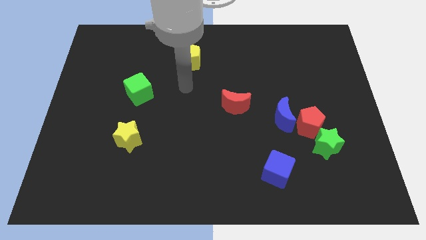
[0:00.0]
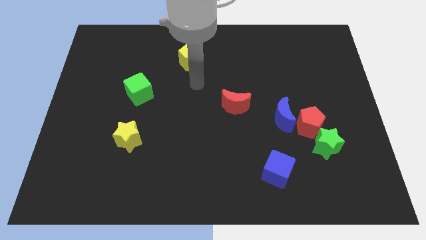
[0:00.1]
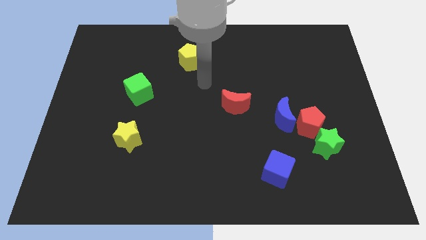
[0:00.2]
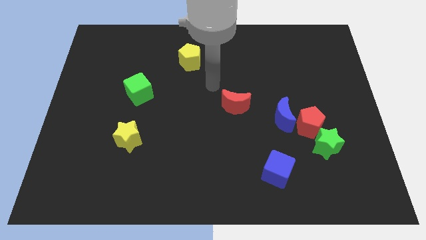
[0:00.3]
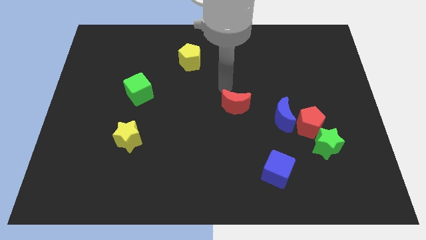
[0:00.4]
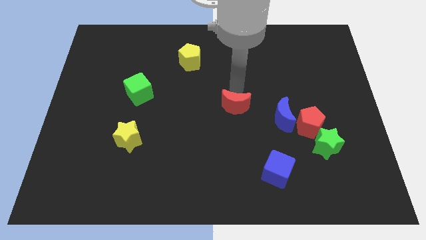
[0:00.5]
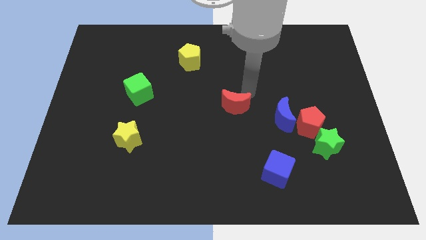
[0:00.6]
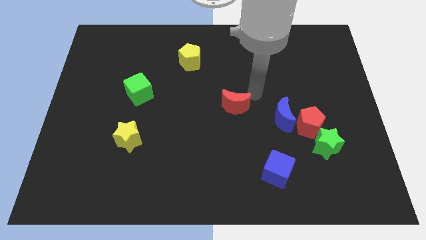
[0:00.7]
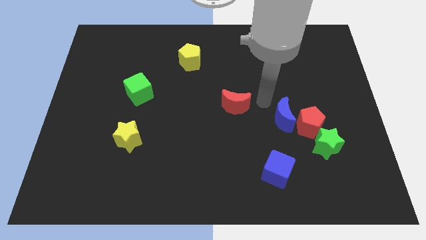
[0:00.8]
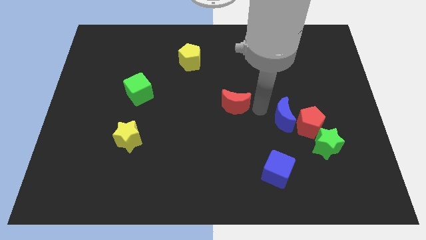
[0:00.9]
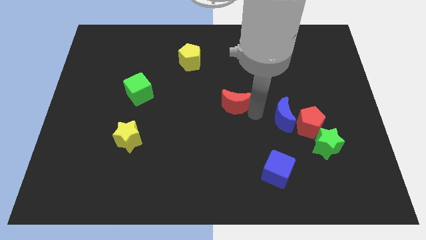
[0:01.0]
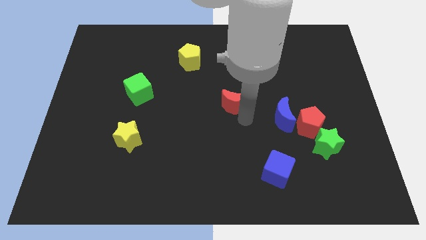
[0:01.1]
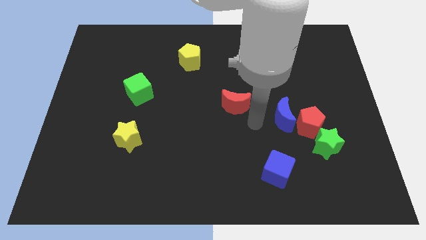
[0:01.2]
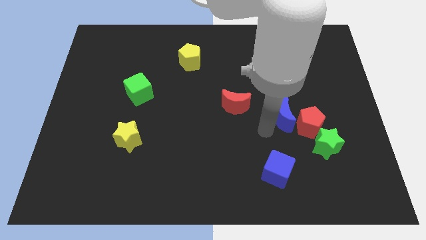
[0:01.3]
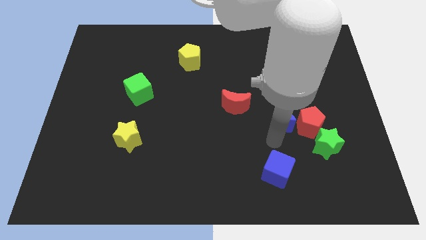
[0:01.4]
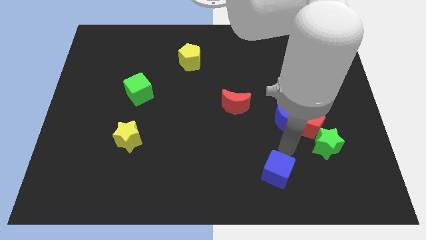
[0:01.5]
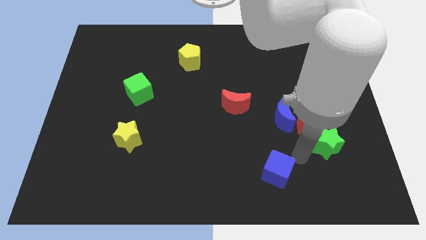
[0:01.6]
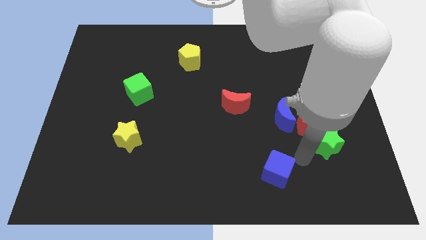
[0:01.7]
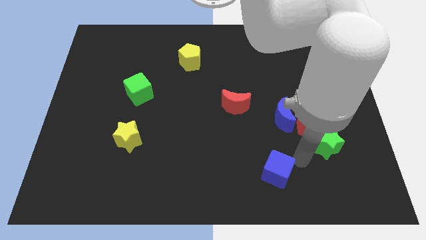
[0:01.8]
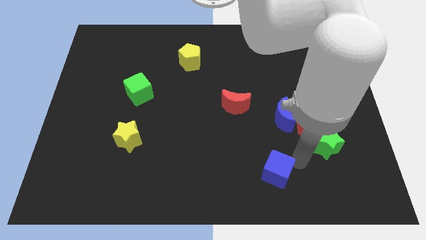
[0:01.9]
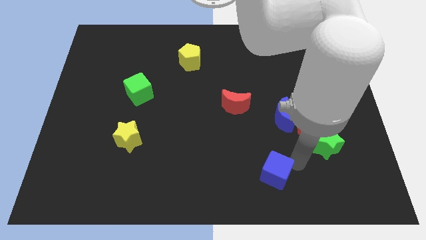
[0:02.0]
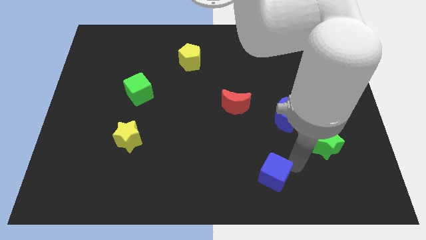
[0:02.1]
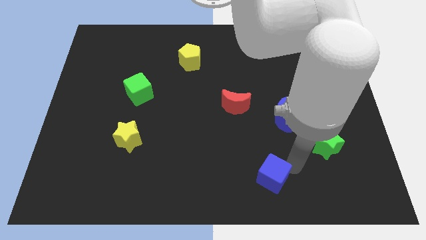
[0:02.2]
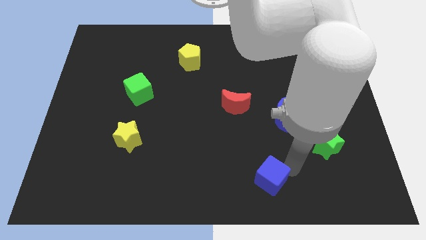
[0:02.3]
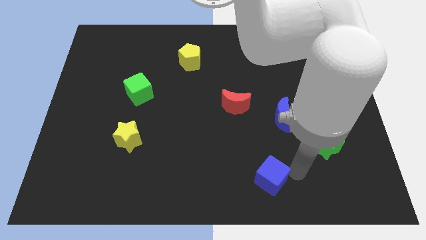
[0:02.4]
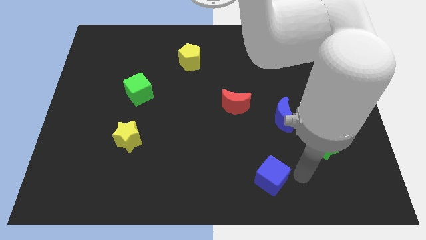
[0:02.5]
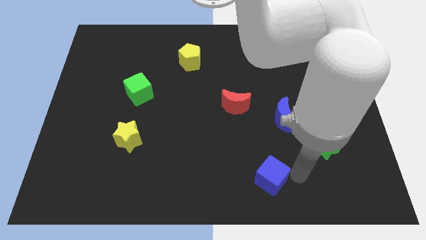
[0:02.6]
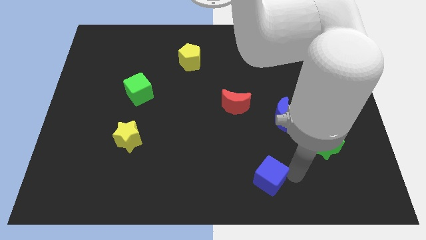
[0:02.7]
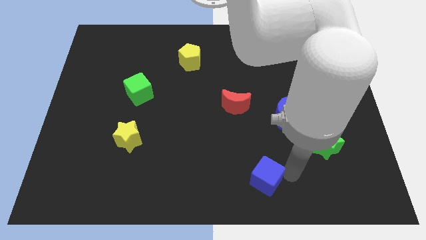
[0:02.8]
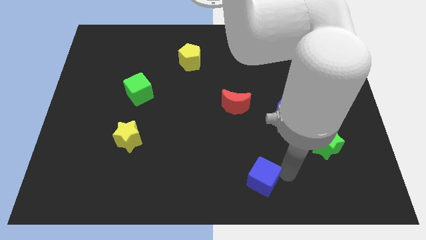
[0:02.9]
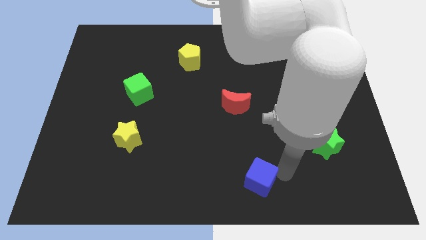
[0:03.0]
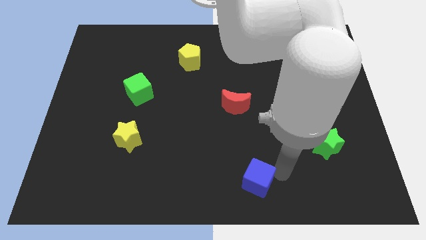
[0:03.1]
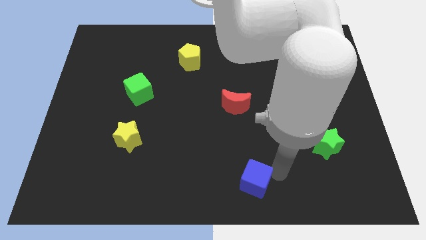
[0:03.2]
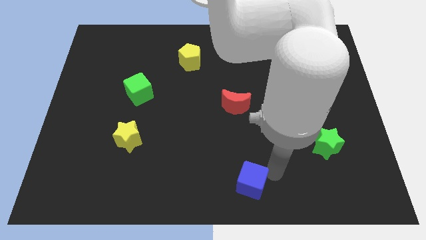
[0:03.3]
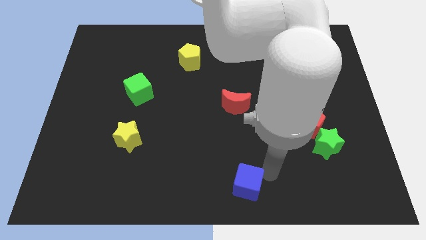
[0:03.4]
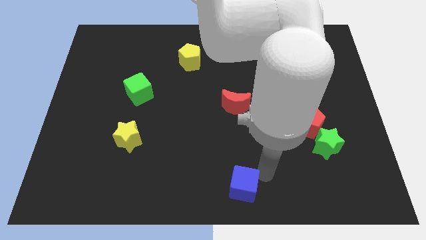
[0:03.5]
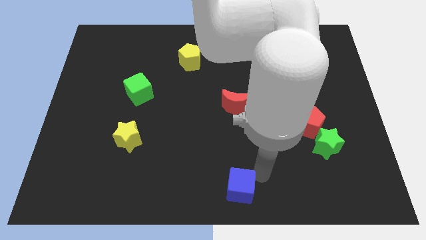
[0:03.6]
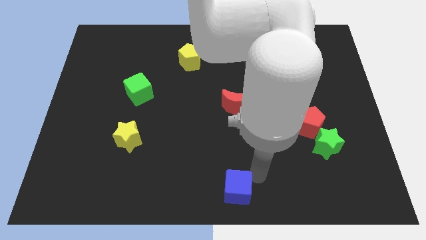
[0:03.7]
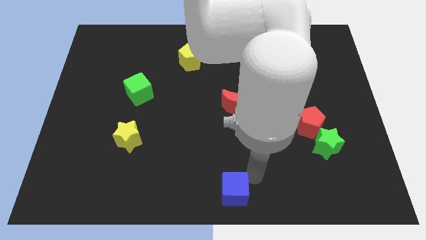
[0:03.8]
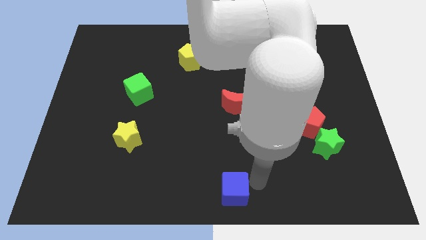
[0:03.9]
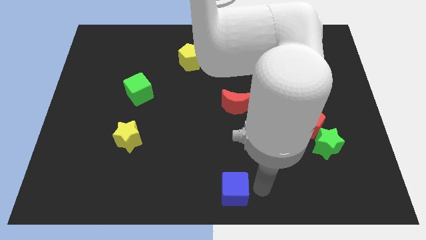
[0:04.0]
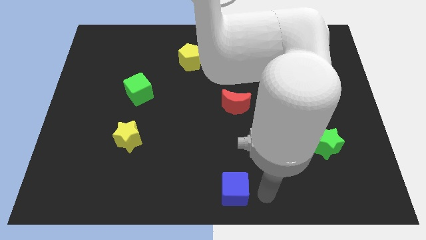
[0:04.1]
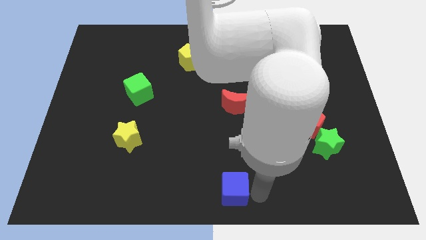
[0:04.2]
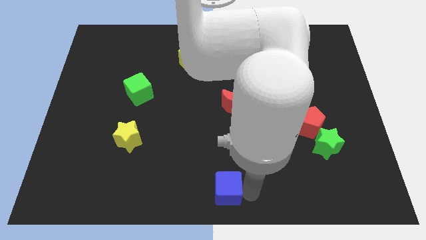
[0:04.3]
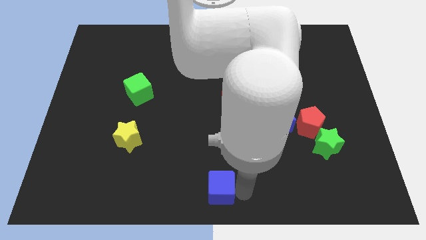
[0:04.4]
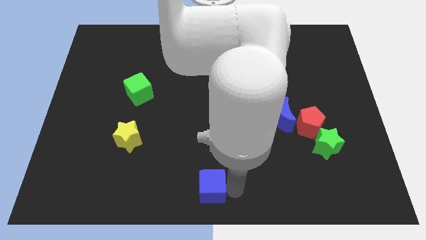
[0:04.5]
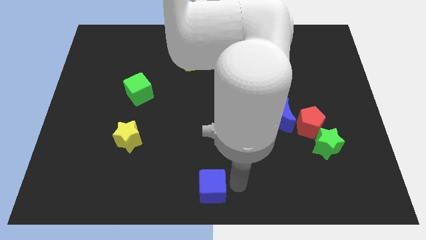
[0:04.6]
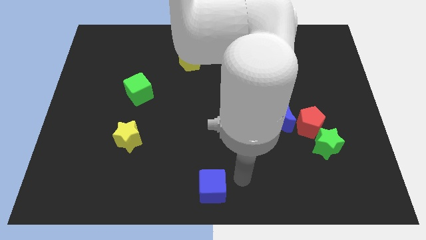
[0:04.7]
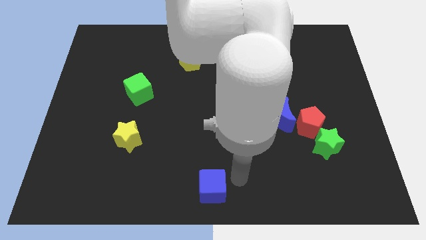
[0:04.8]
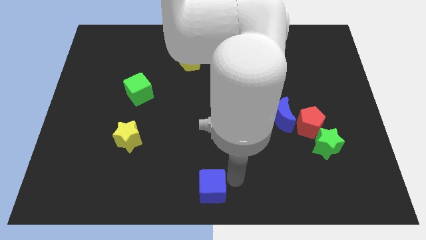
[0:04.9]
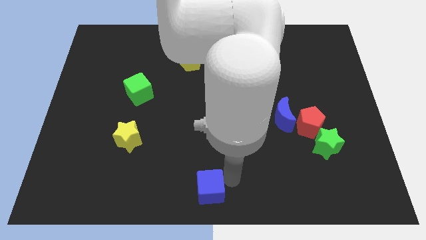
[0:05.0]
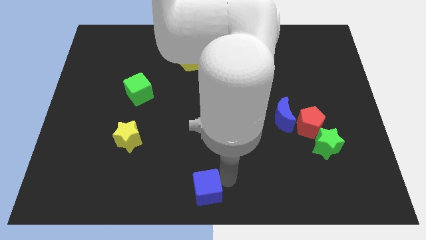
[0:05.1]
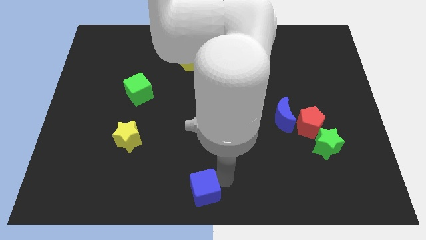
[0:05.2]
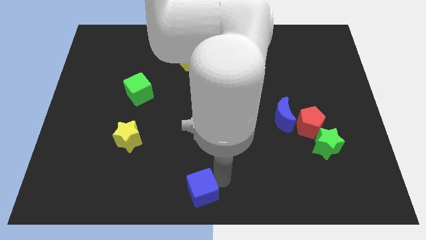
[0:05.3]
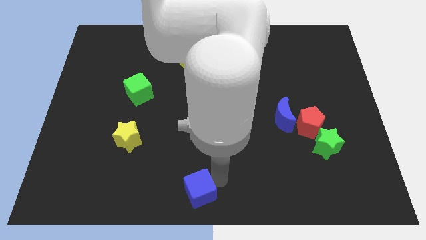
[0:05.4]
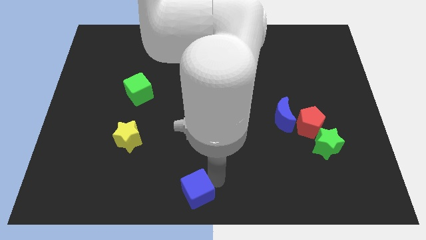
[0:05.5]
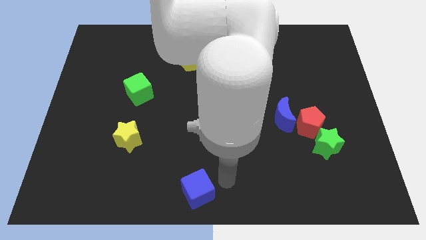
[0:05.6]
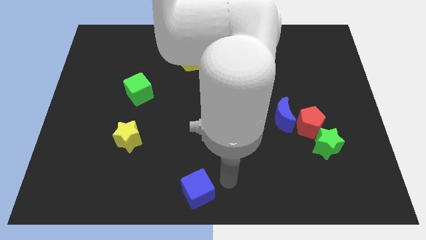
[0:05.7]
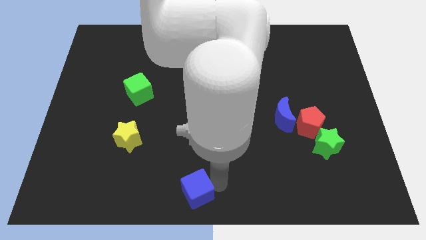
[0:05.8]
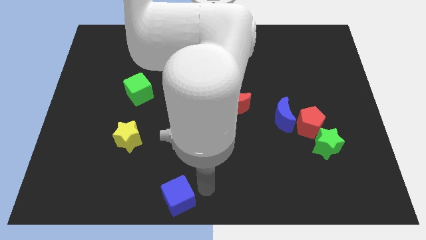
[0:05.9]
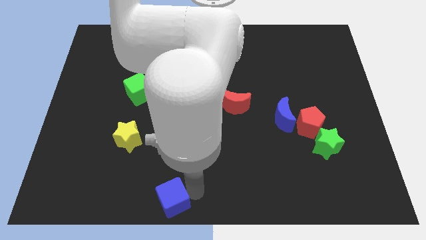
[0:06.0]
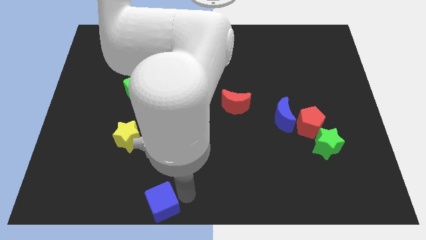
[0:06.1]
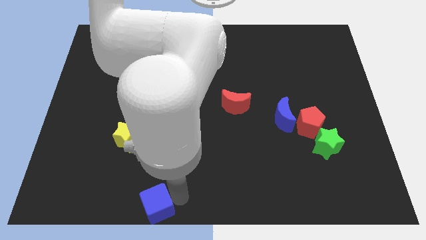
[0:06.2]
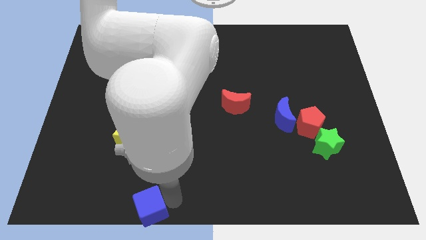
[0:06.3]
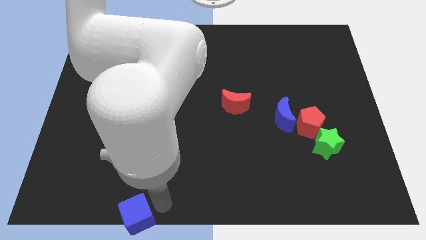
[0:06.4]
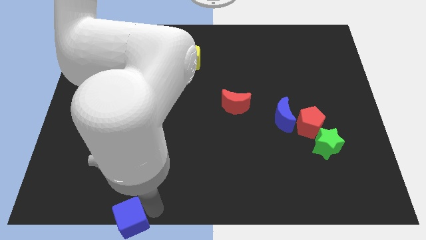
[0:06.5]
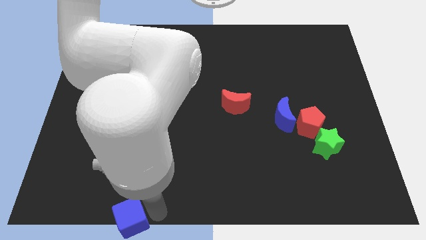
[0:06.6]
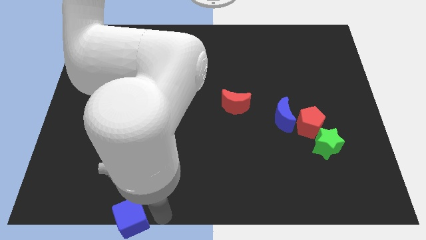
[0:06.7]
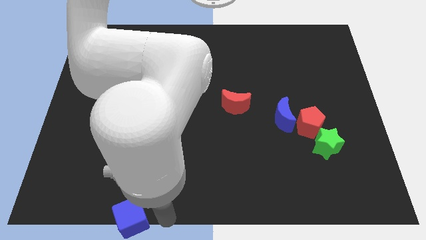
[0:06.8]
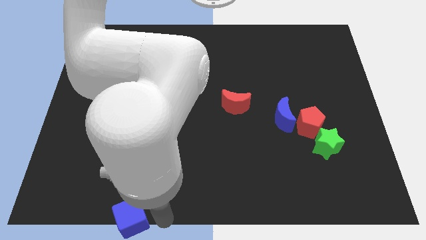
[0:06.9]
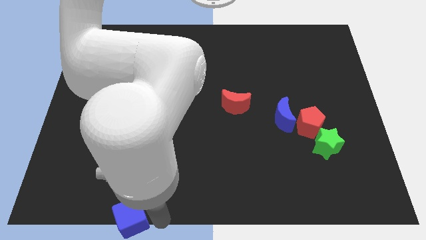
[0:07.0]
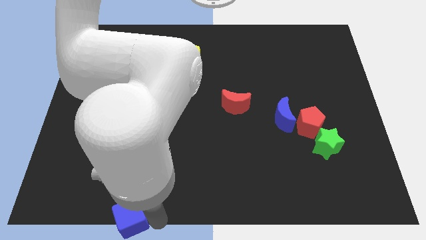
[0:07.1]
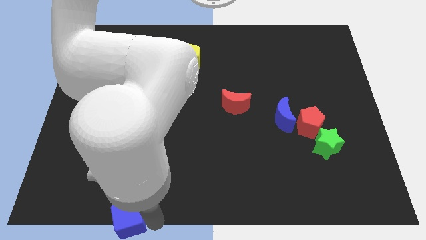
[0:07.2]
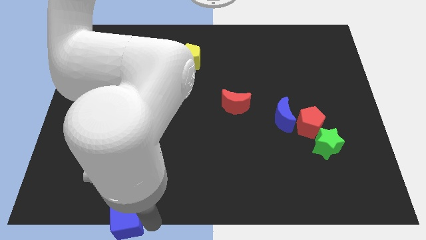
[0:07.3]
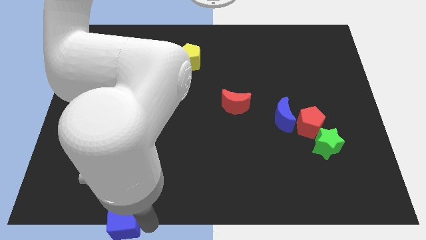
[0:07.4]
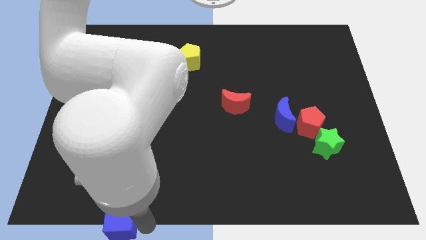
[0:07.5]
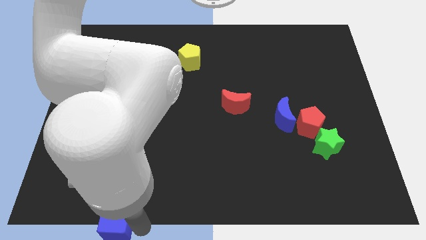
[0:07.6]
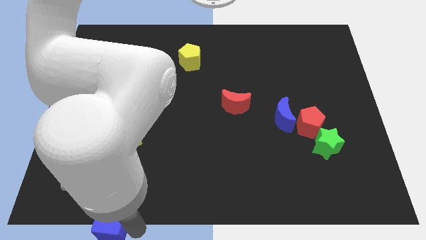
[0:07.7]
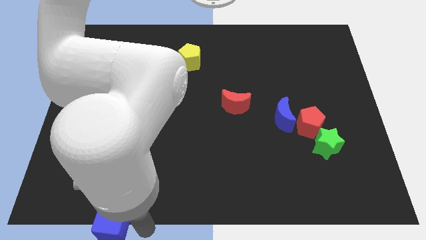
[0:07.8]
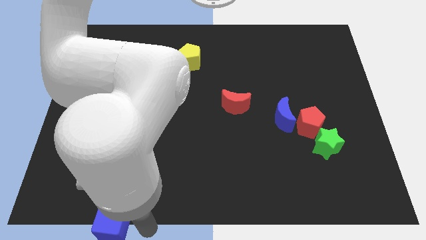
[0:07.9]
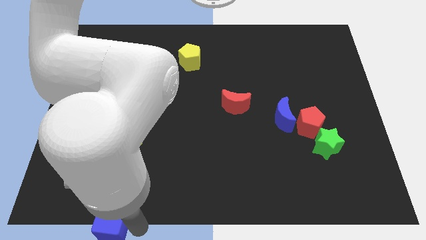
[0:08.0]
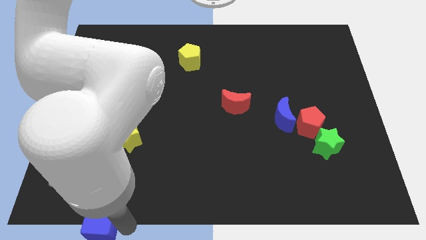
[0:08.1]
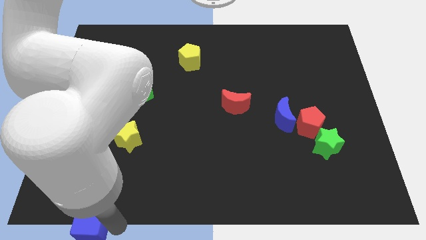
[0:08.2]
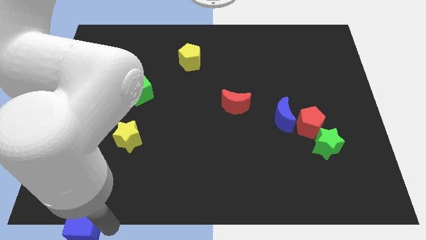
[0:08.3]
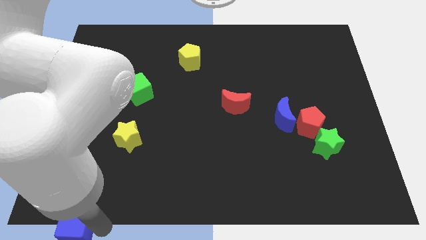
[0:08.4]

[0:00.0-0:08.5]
push the blue cube to the bottom left corner
